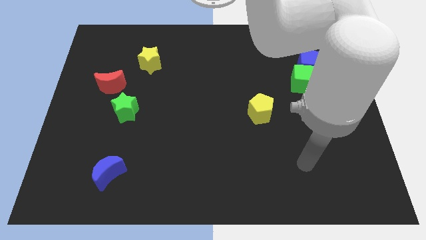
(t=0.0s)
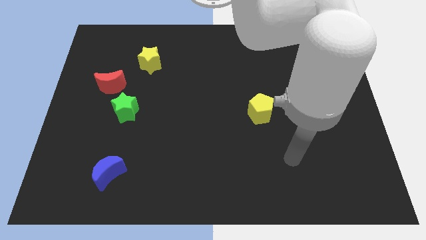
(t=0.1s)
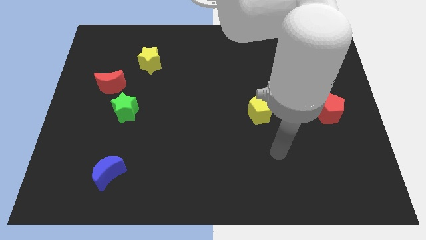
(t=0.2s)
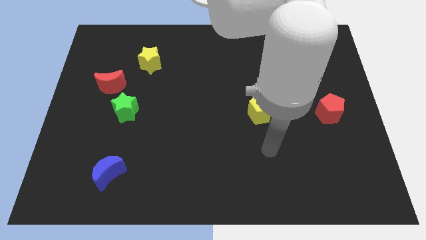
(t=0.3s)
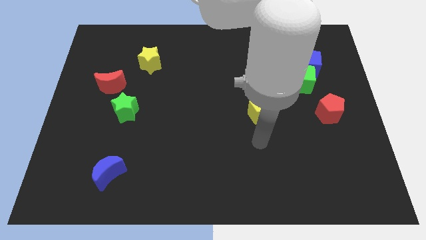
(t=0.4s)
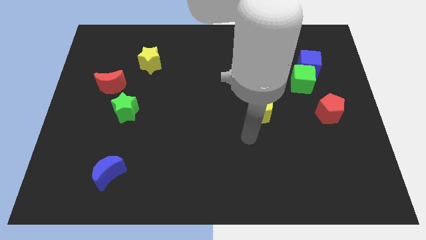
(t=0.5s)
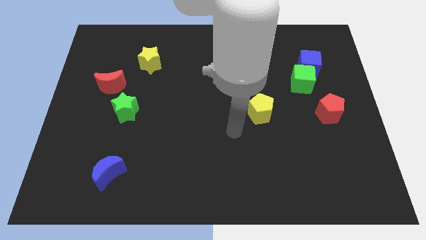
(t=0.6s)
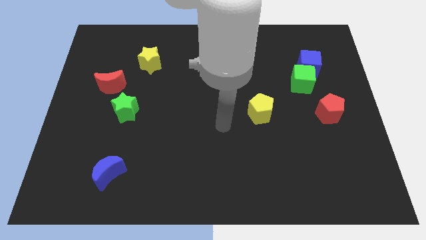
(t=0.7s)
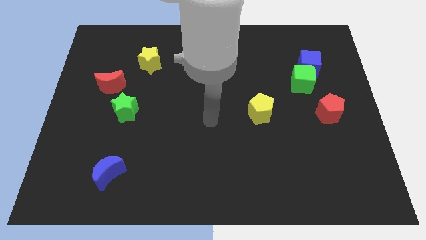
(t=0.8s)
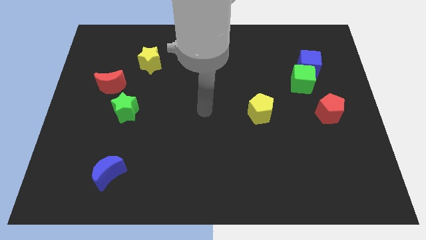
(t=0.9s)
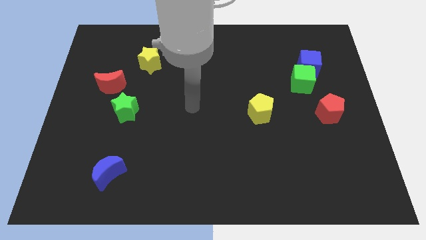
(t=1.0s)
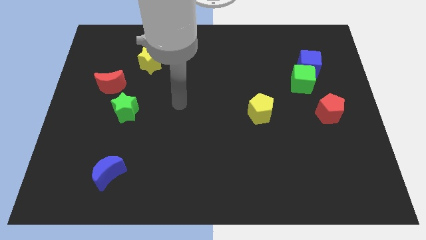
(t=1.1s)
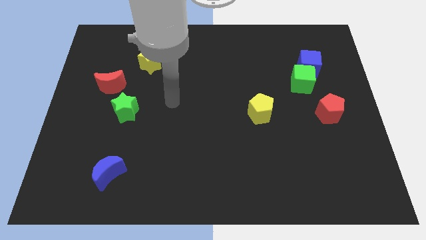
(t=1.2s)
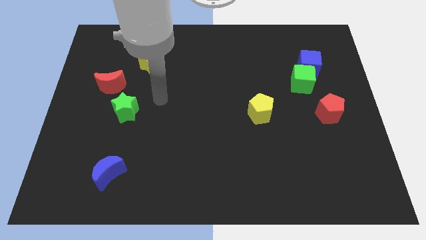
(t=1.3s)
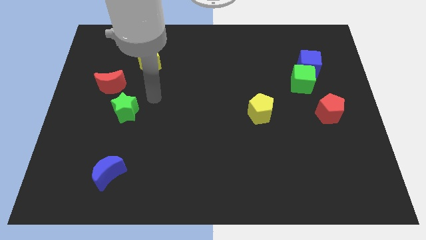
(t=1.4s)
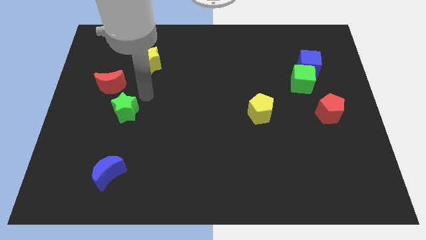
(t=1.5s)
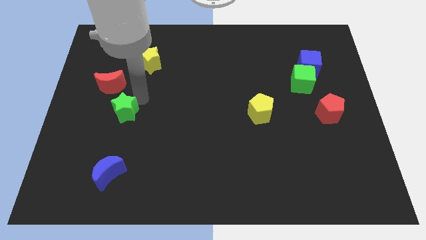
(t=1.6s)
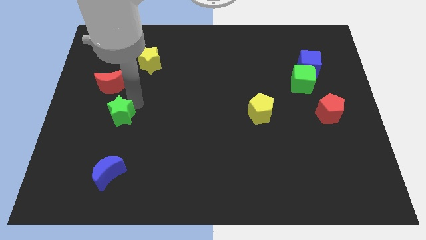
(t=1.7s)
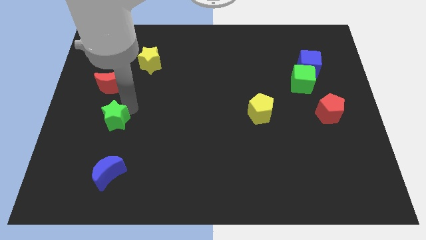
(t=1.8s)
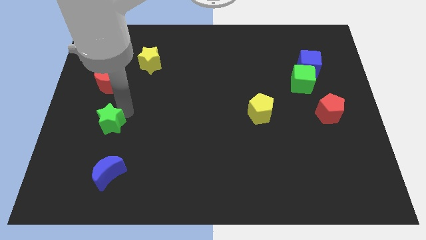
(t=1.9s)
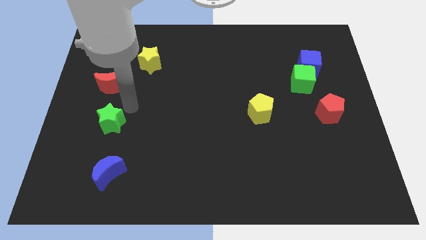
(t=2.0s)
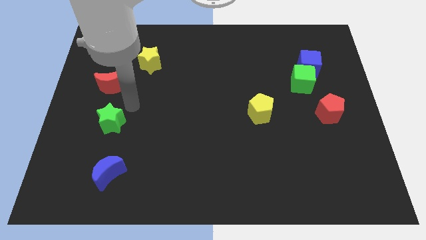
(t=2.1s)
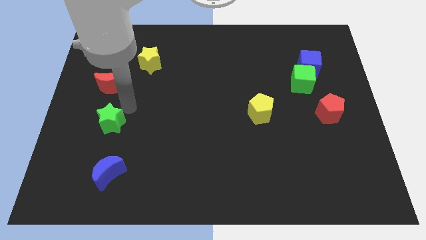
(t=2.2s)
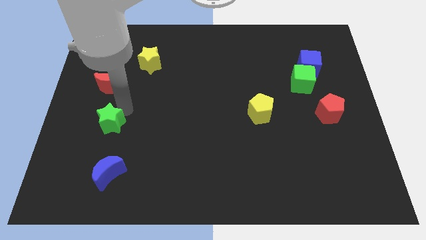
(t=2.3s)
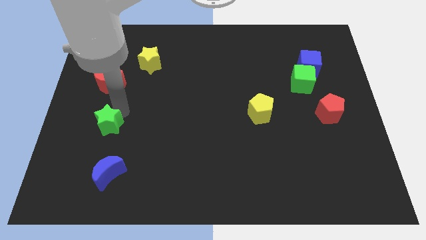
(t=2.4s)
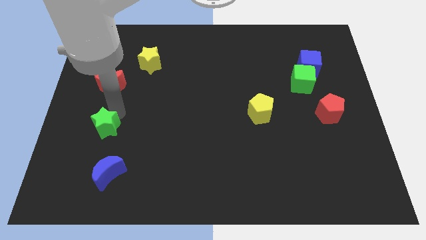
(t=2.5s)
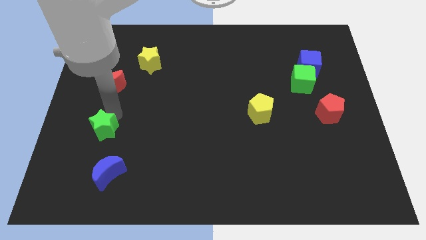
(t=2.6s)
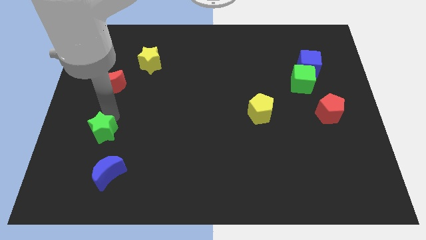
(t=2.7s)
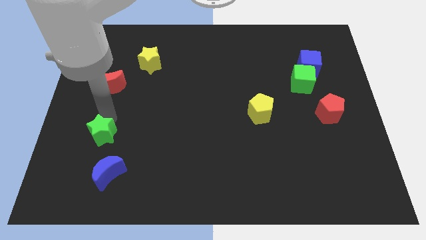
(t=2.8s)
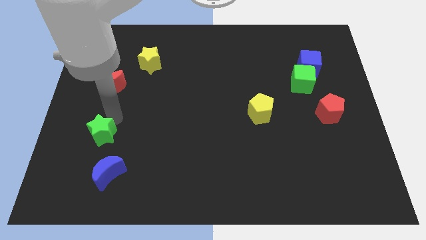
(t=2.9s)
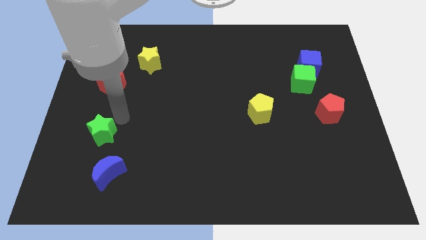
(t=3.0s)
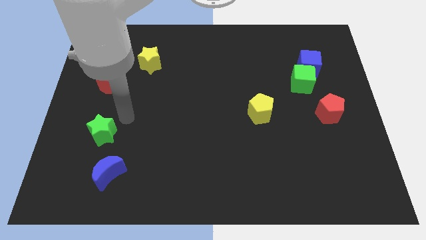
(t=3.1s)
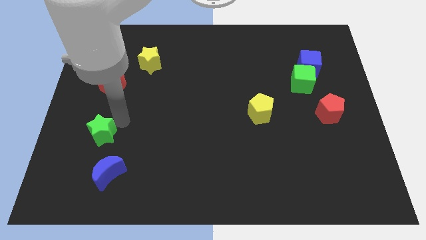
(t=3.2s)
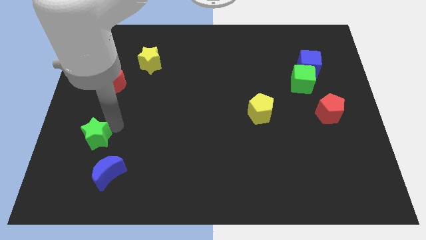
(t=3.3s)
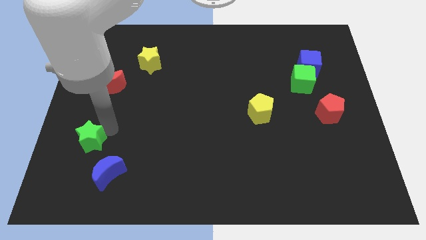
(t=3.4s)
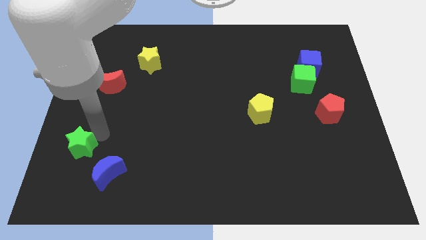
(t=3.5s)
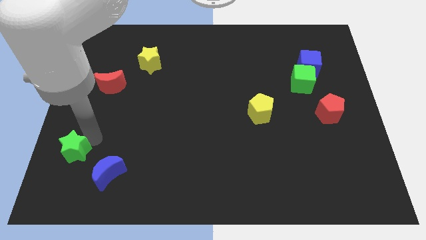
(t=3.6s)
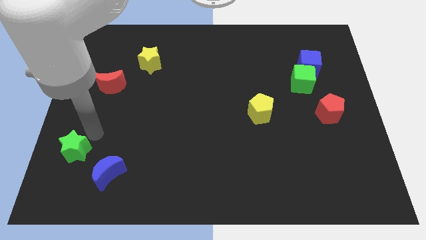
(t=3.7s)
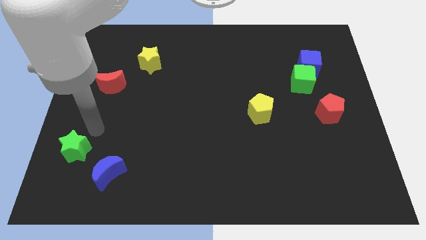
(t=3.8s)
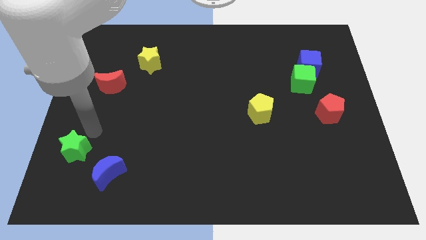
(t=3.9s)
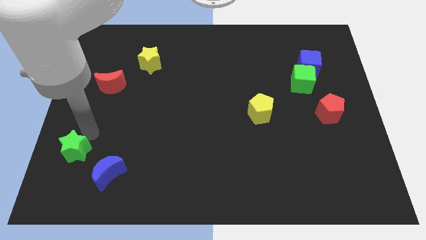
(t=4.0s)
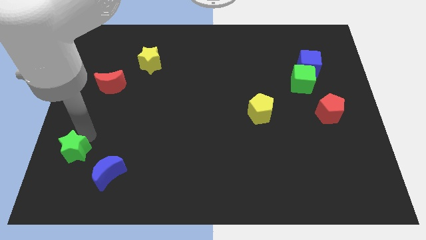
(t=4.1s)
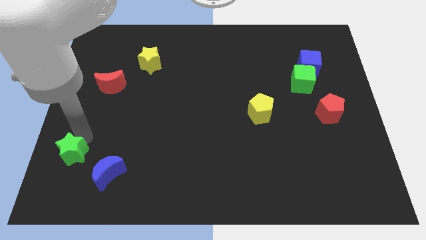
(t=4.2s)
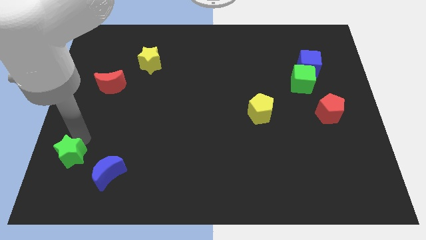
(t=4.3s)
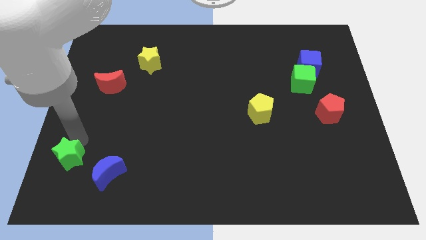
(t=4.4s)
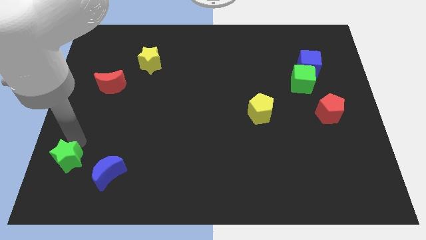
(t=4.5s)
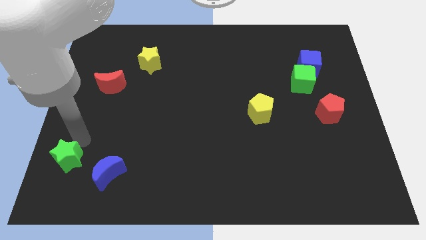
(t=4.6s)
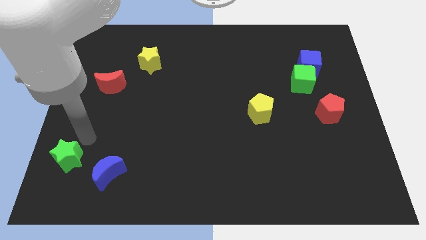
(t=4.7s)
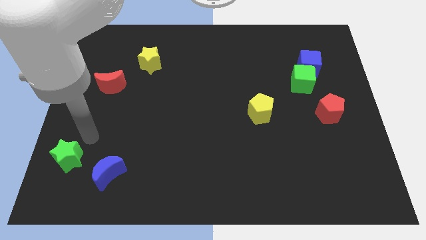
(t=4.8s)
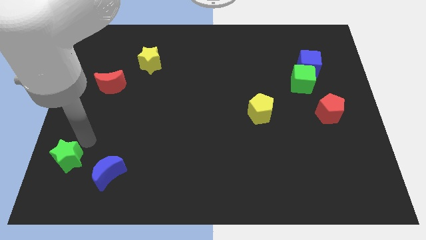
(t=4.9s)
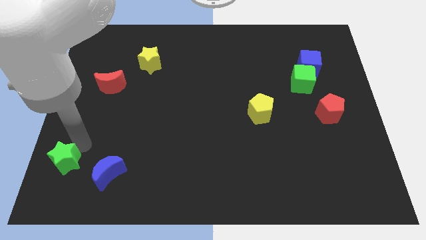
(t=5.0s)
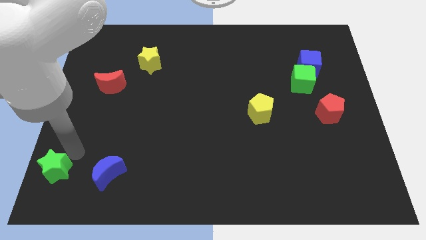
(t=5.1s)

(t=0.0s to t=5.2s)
put the green star to the bottom left of the board

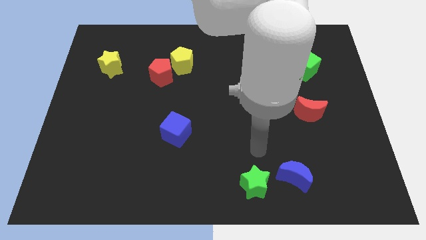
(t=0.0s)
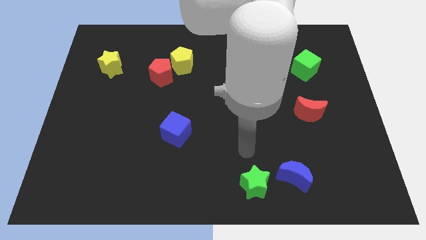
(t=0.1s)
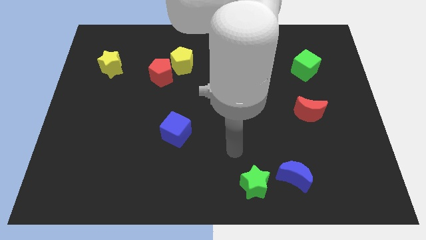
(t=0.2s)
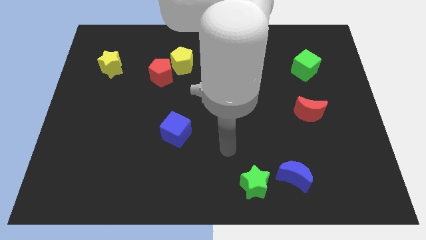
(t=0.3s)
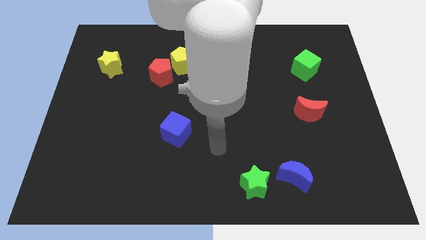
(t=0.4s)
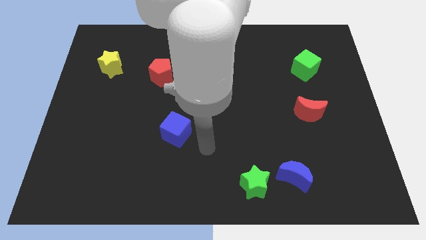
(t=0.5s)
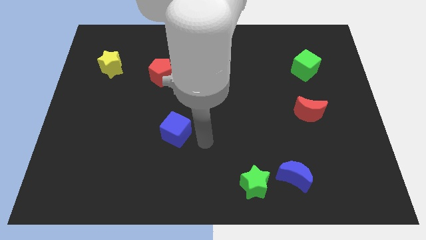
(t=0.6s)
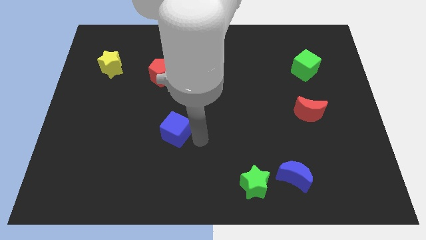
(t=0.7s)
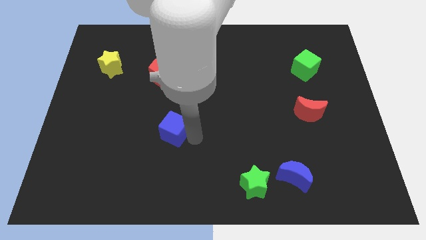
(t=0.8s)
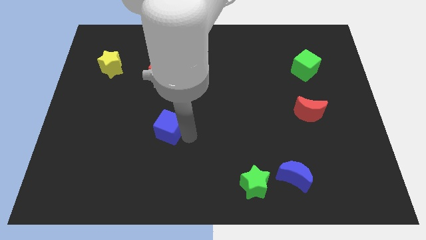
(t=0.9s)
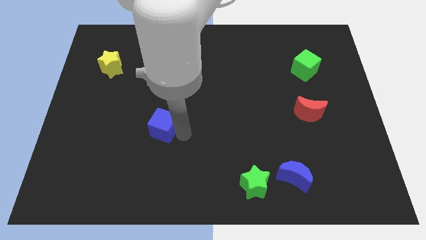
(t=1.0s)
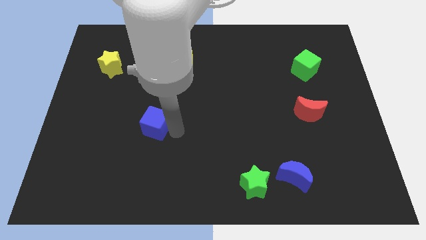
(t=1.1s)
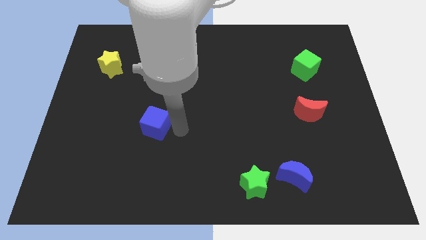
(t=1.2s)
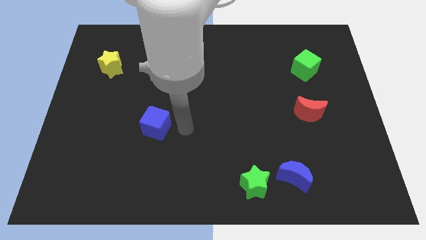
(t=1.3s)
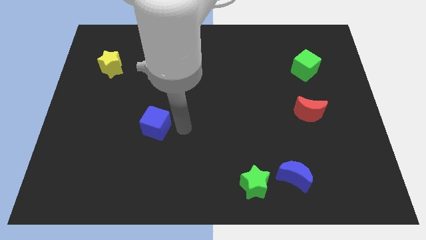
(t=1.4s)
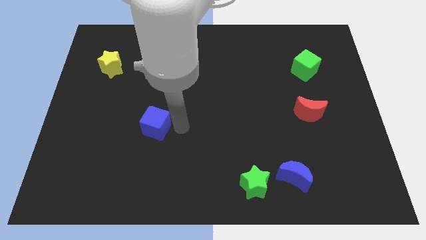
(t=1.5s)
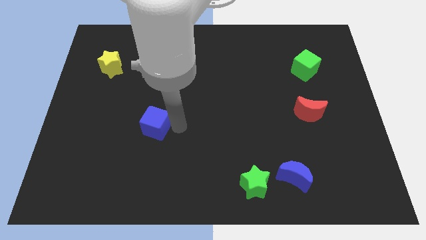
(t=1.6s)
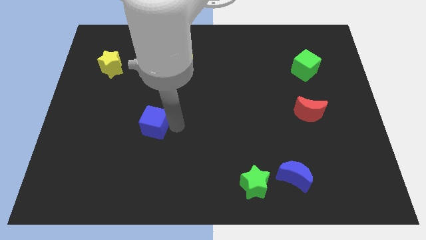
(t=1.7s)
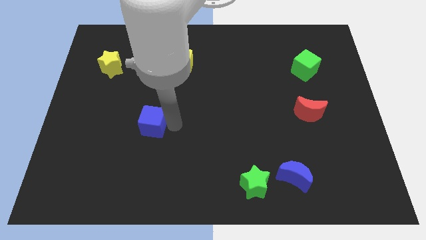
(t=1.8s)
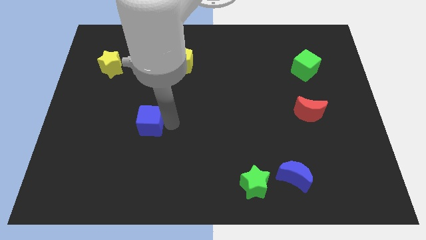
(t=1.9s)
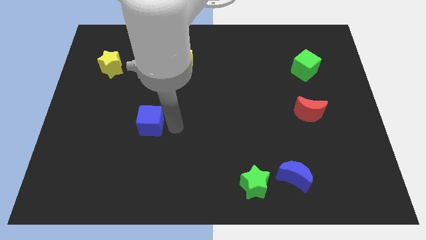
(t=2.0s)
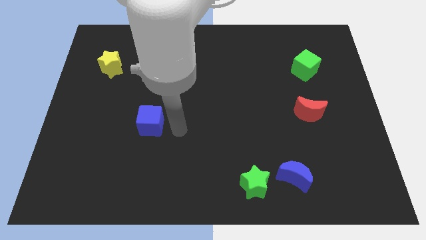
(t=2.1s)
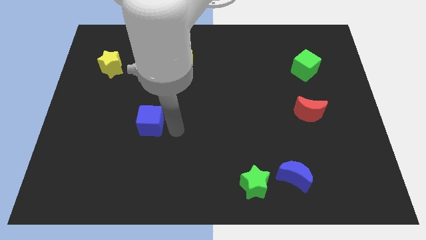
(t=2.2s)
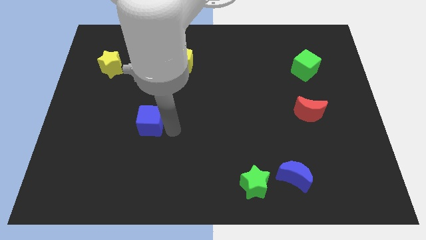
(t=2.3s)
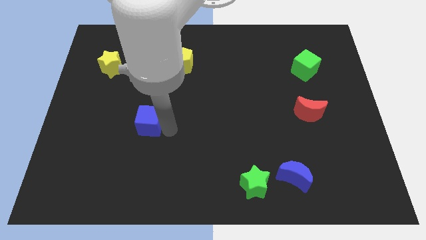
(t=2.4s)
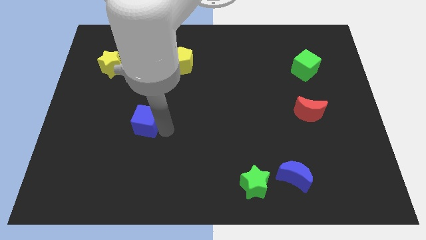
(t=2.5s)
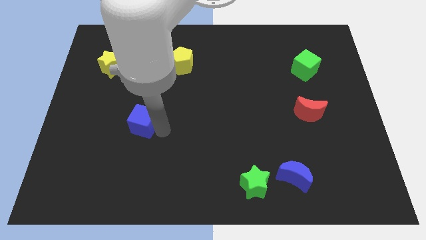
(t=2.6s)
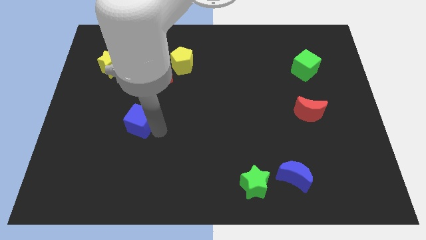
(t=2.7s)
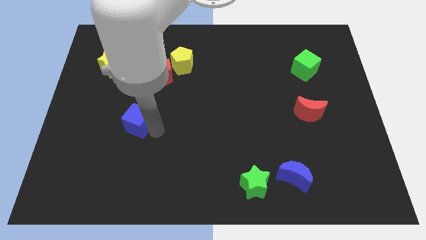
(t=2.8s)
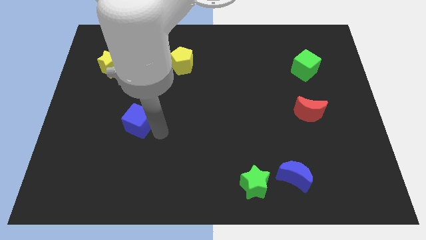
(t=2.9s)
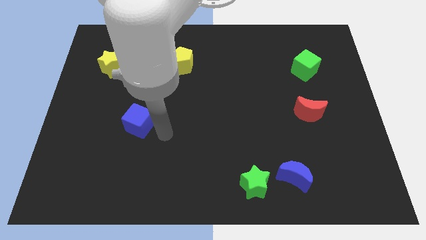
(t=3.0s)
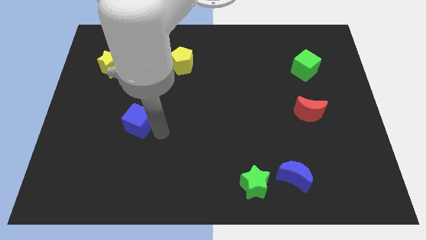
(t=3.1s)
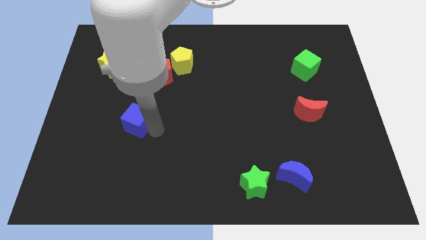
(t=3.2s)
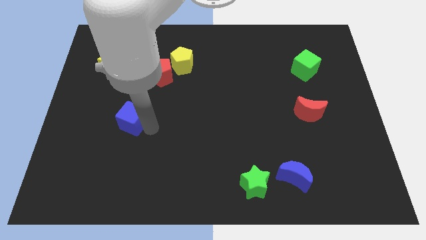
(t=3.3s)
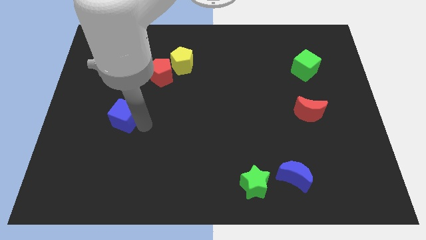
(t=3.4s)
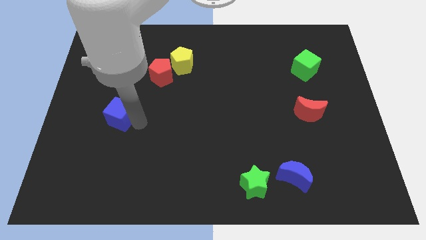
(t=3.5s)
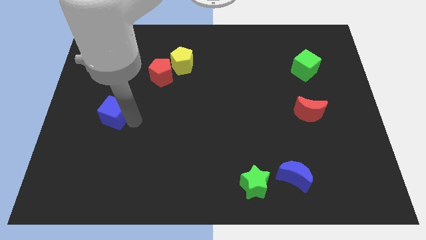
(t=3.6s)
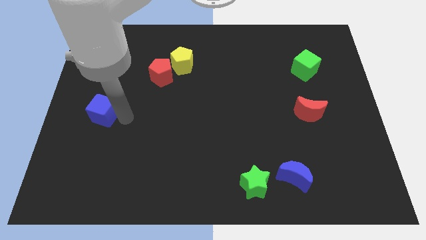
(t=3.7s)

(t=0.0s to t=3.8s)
push the blue cube to the left side of the board
